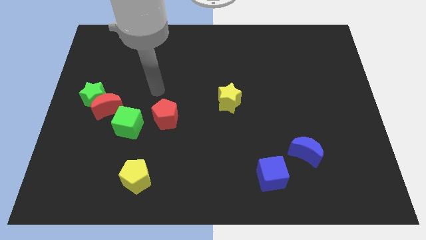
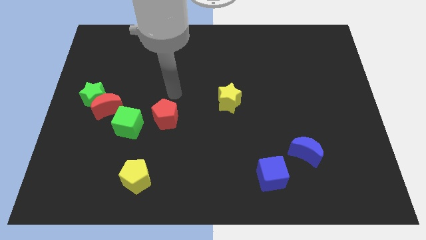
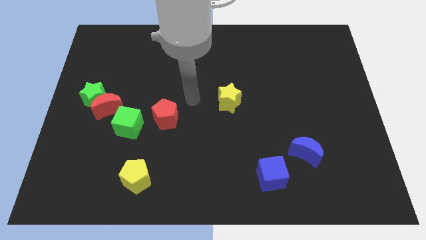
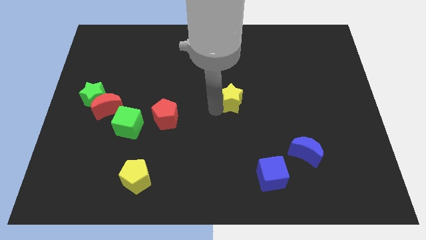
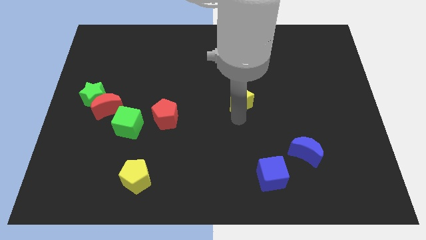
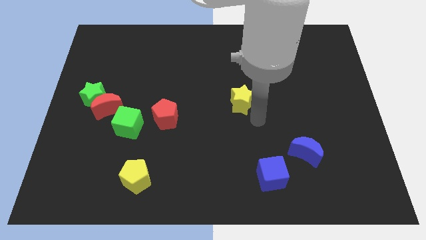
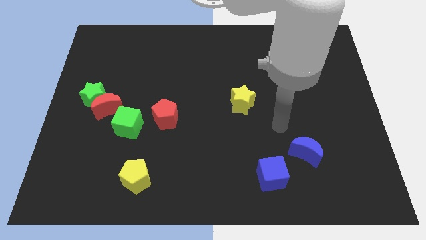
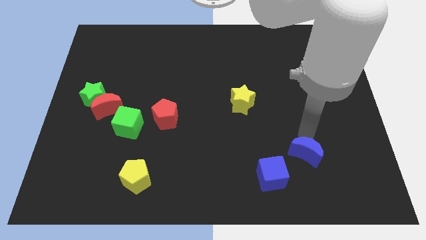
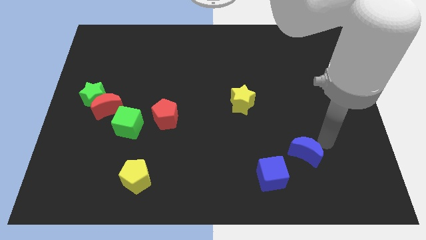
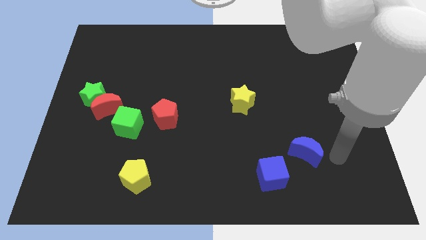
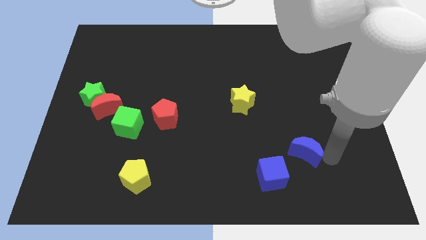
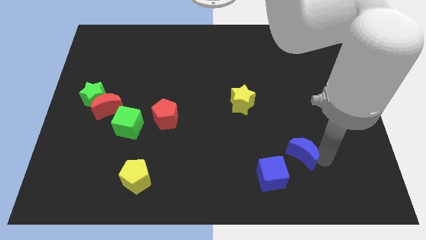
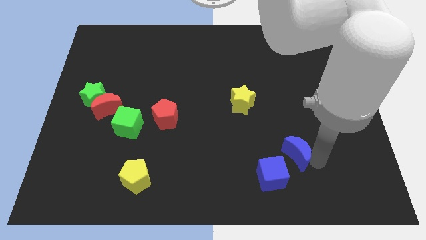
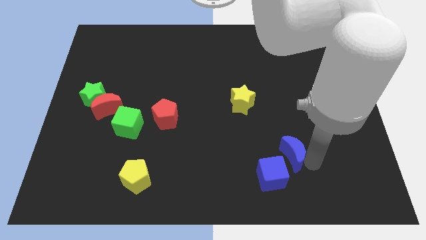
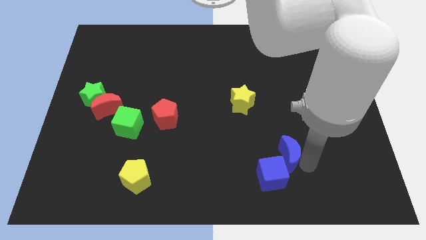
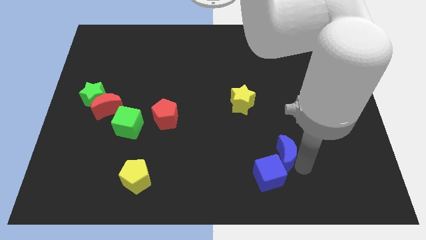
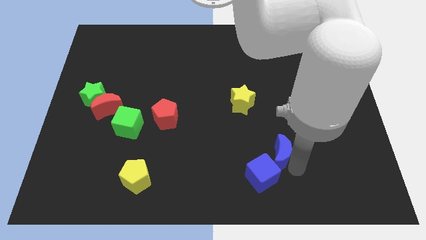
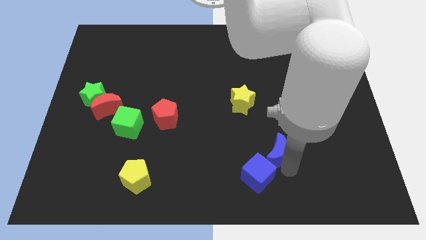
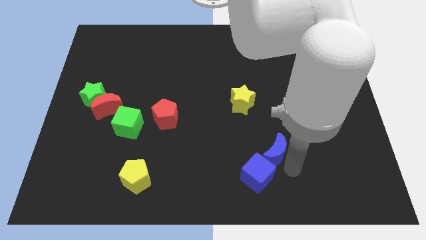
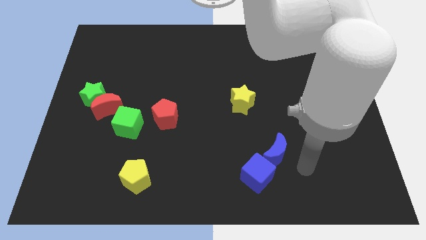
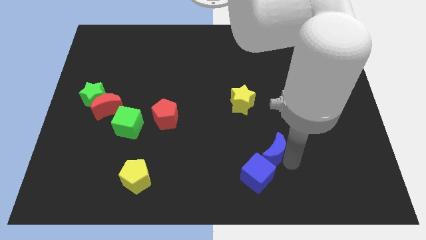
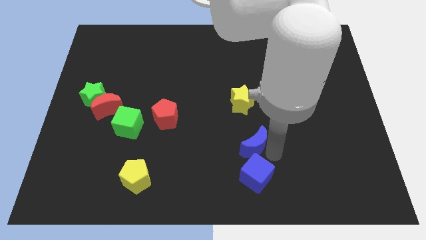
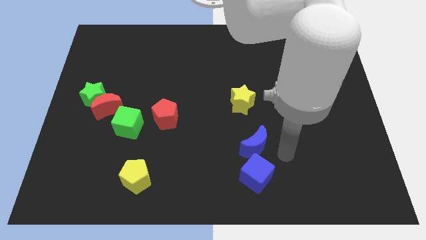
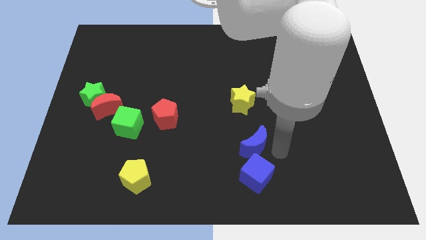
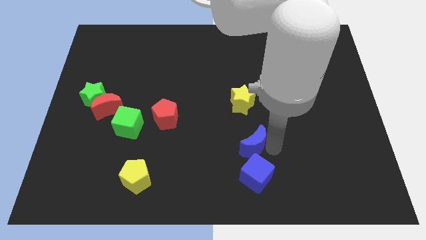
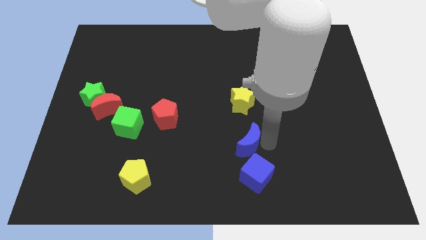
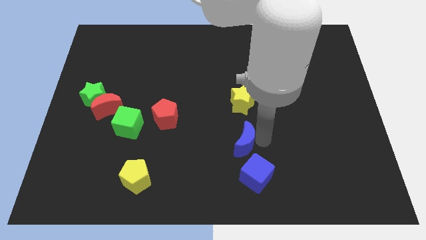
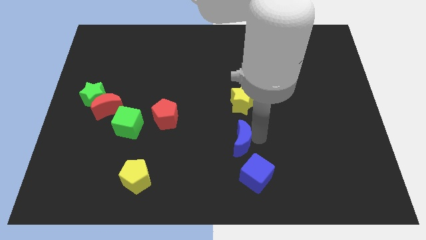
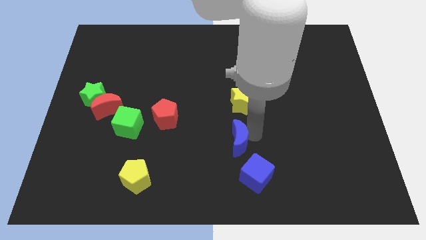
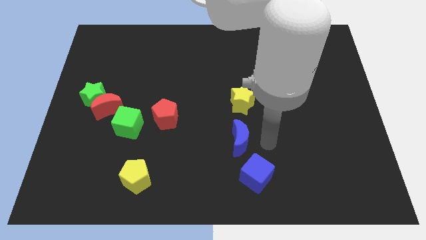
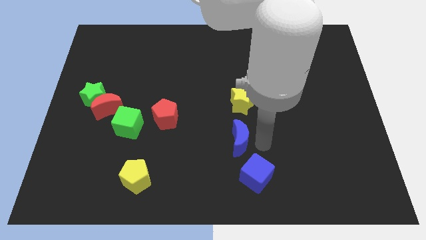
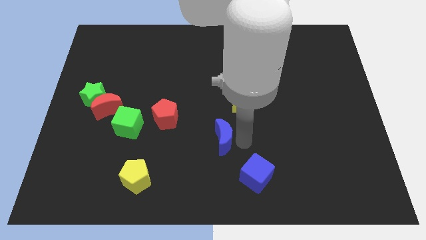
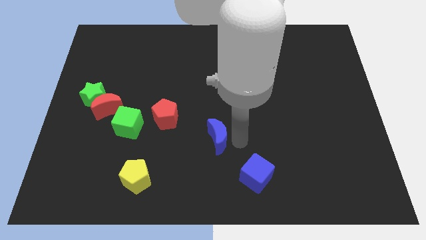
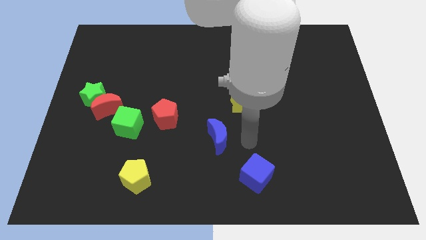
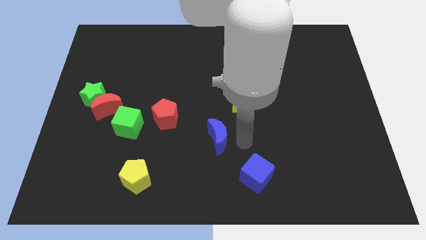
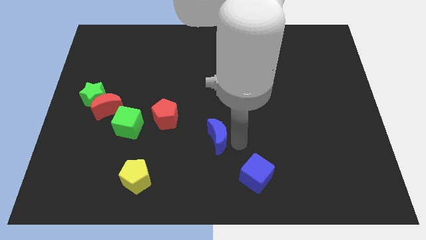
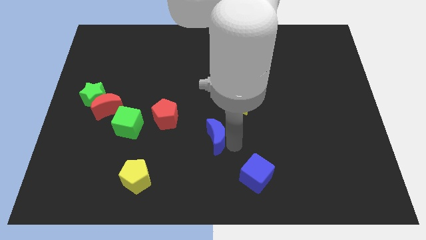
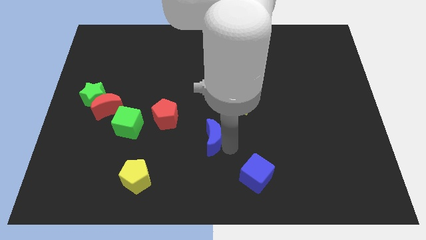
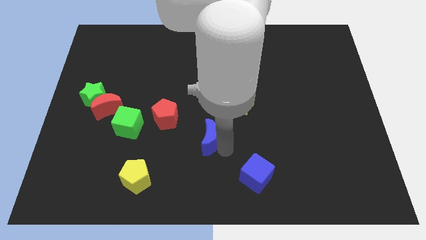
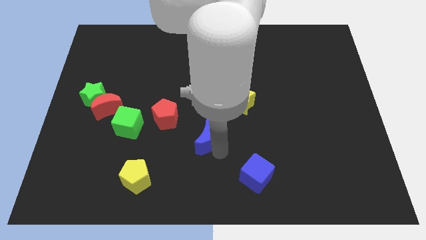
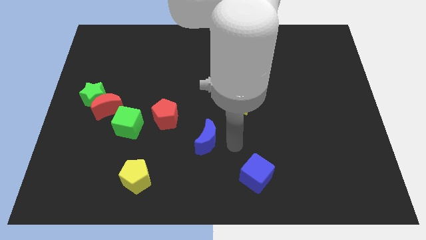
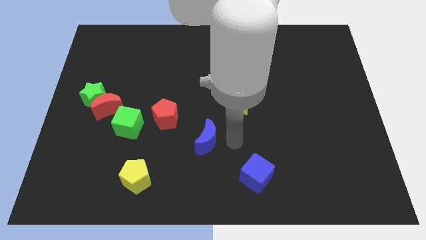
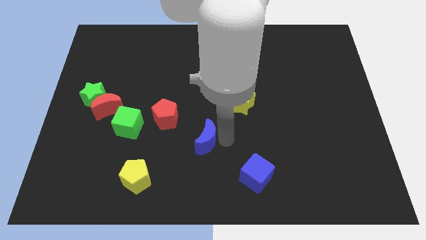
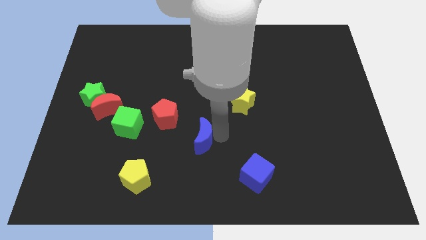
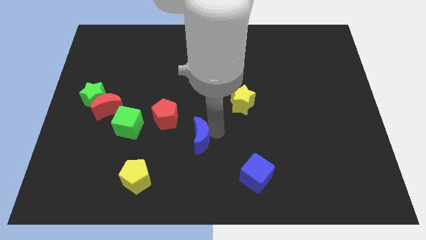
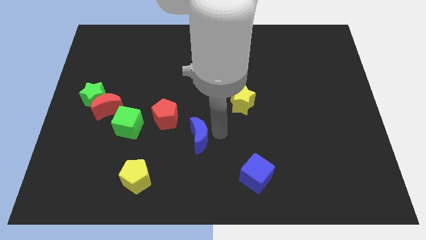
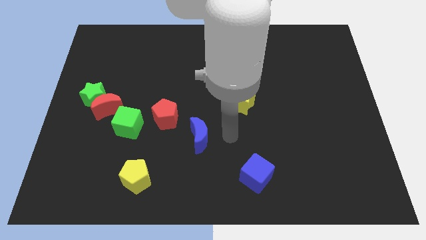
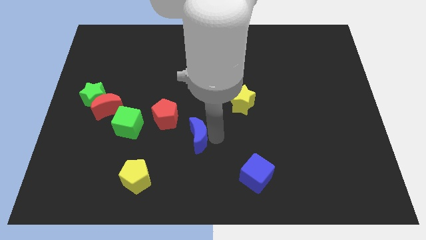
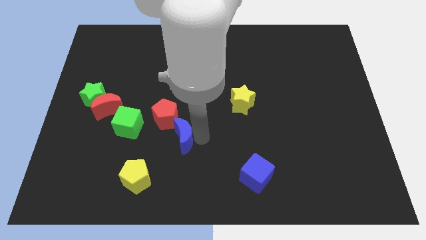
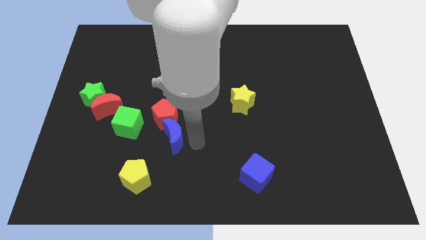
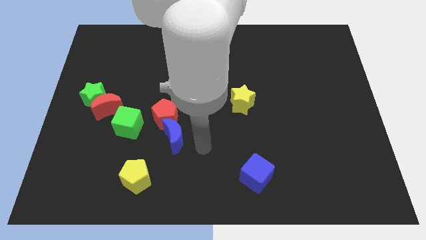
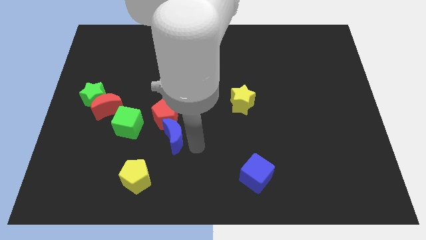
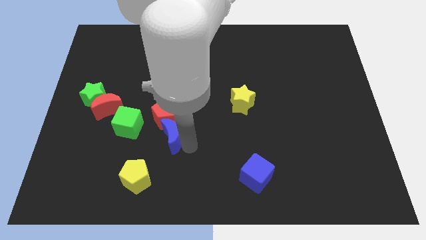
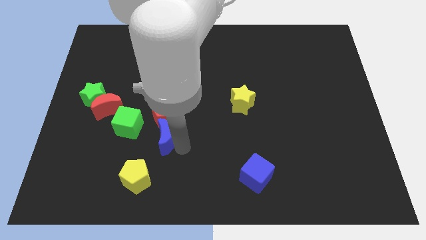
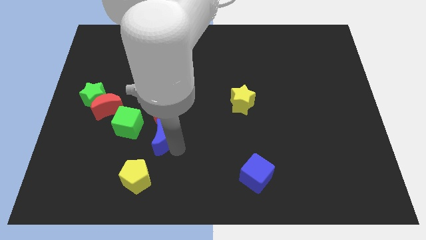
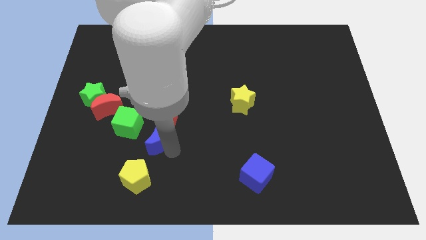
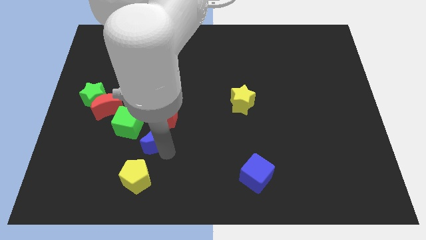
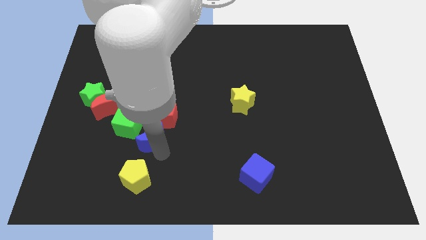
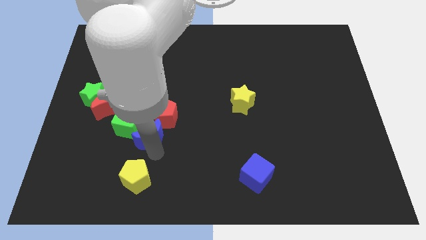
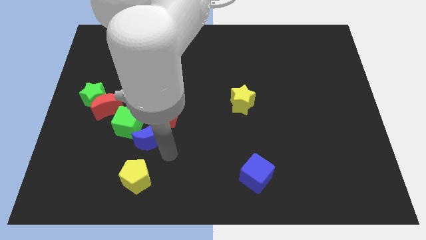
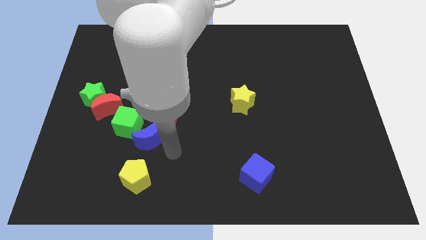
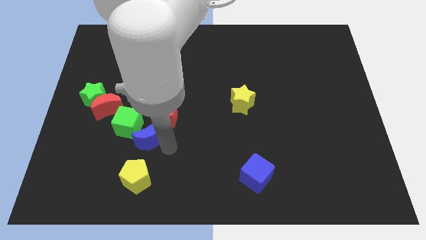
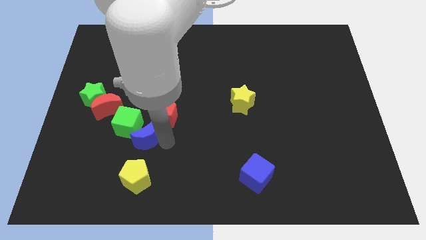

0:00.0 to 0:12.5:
push the blue moon next to the green cube

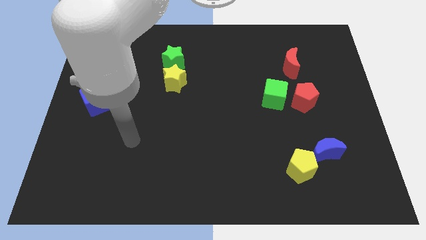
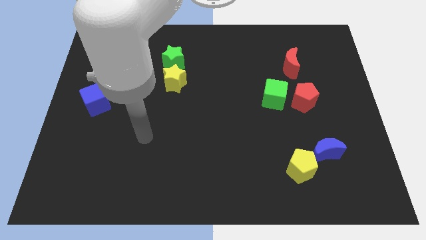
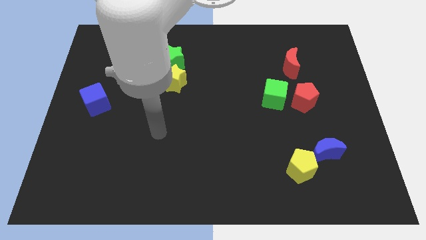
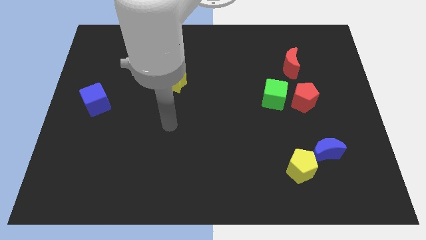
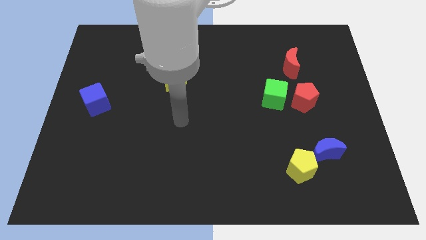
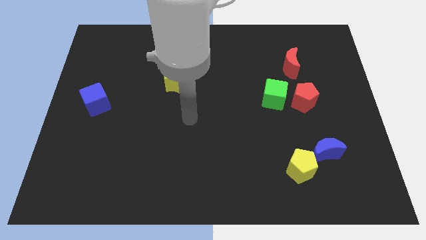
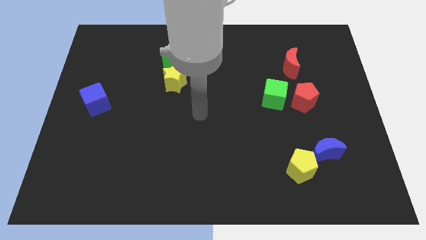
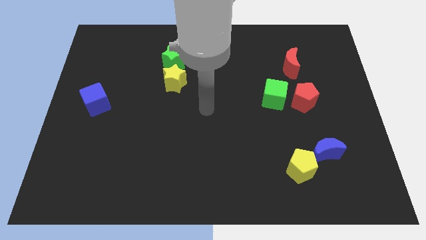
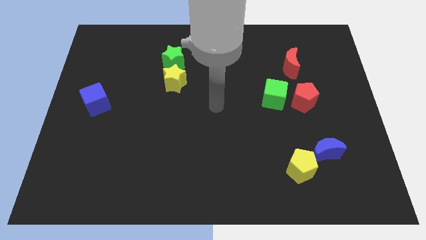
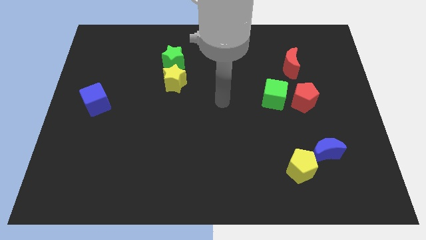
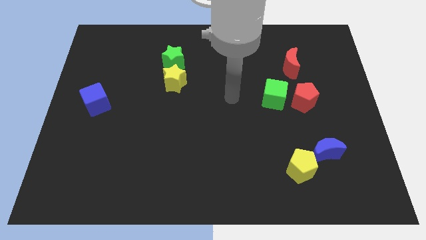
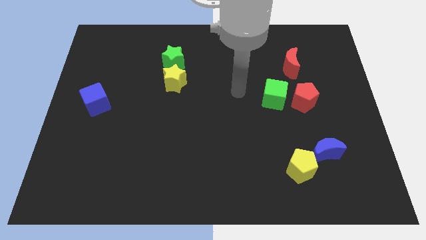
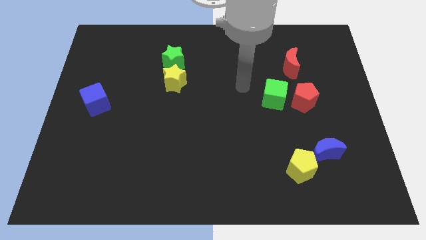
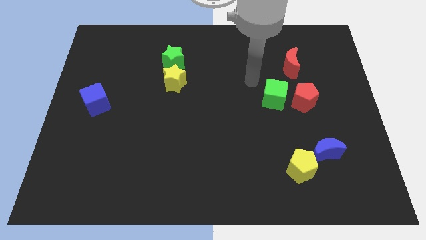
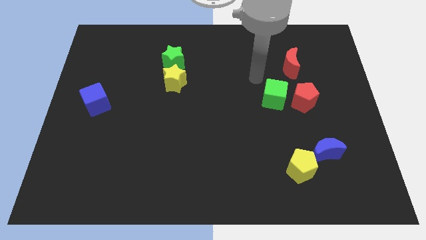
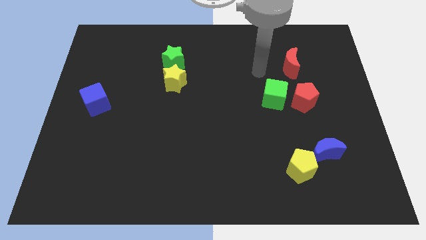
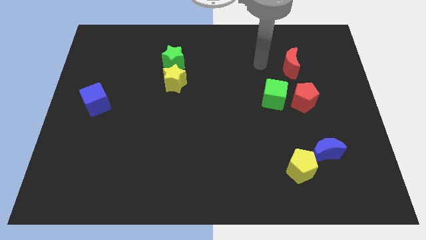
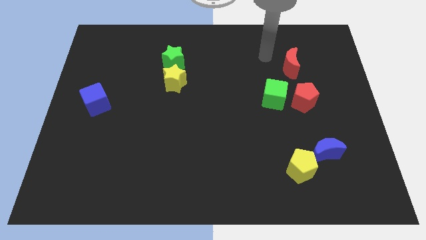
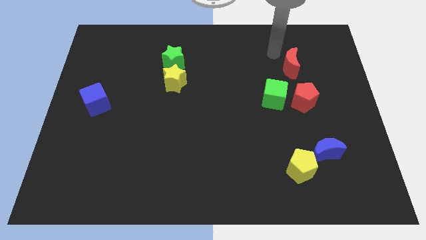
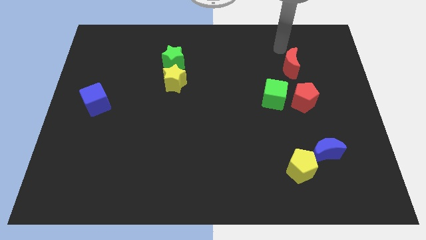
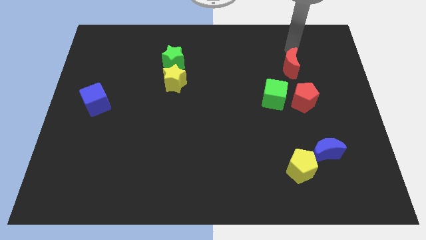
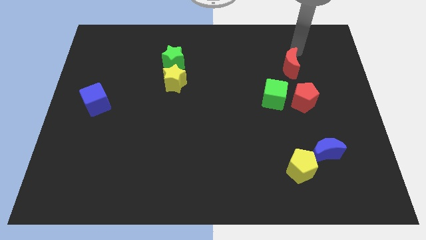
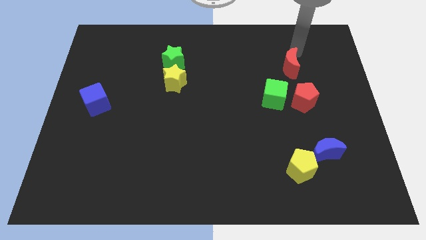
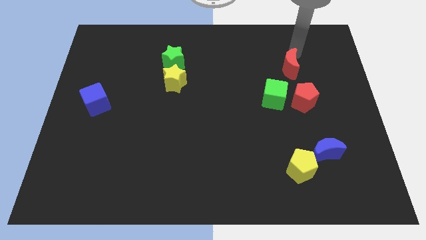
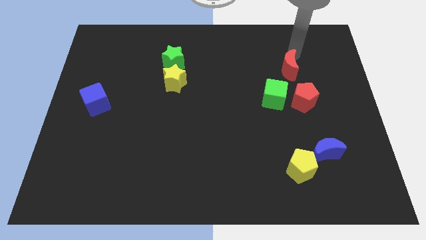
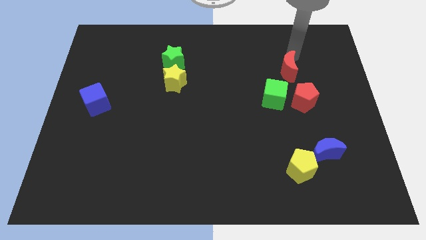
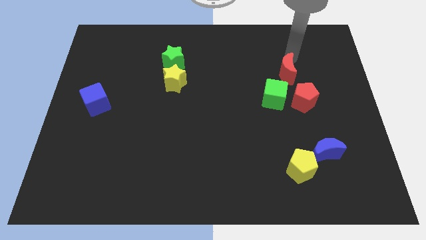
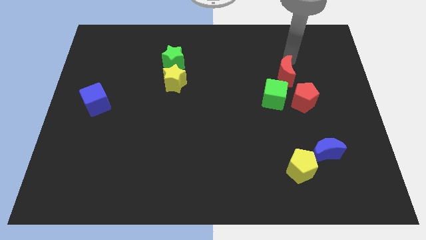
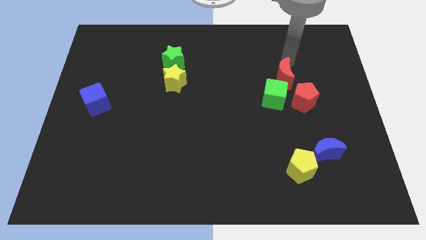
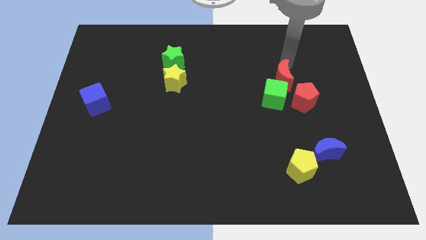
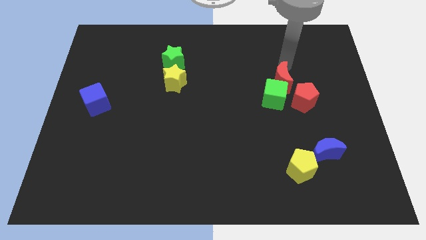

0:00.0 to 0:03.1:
slide the red moon to the green cube
